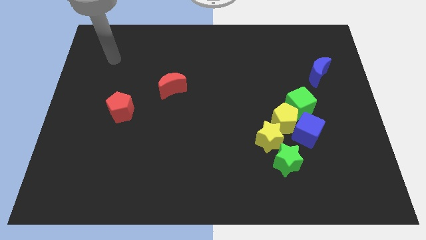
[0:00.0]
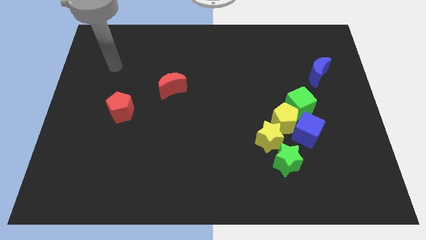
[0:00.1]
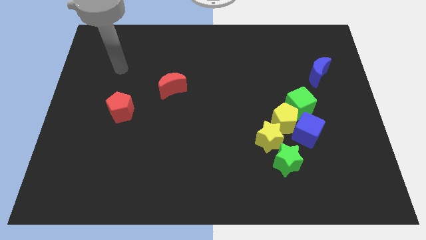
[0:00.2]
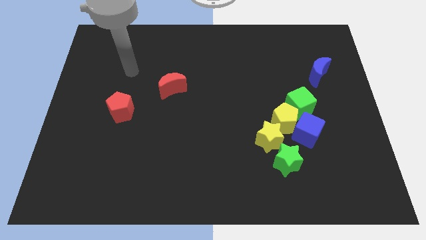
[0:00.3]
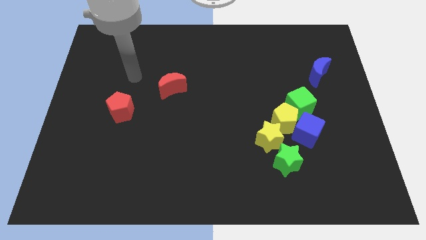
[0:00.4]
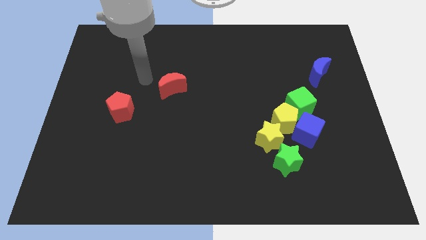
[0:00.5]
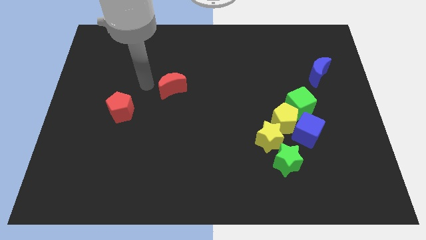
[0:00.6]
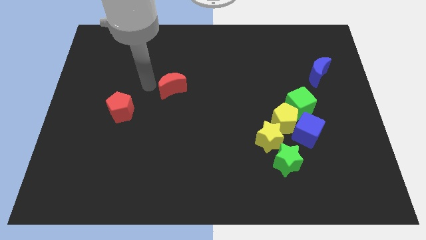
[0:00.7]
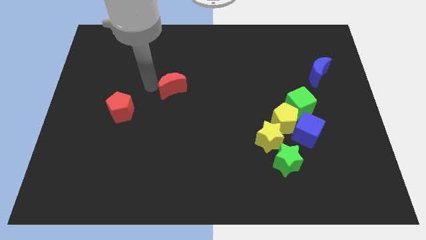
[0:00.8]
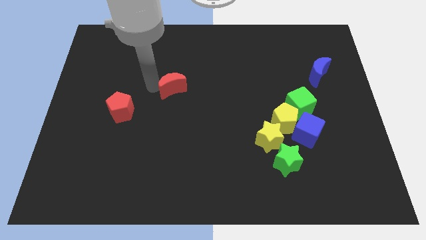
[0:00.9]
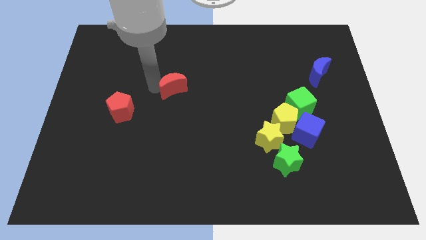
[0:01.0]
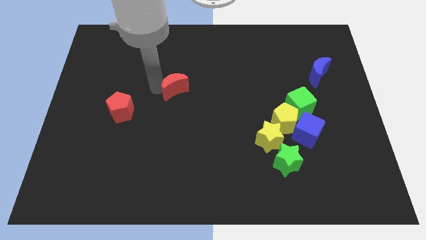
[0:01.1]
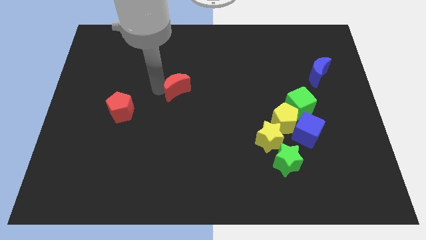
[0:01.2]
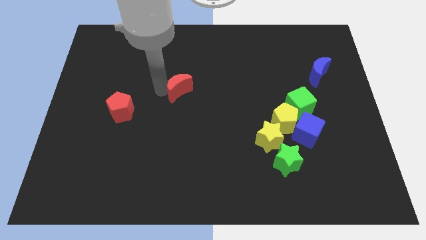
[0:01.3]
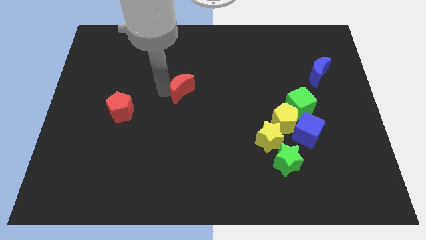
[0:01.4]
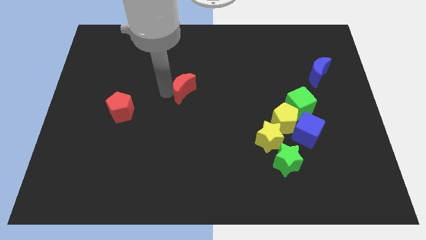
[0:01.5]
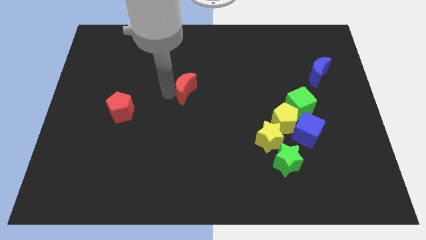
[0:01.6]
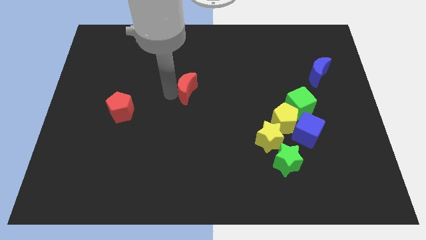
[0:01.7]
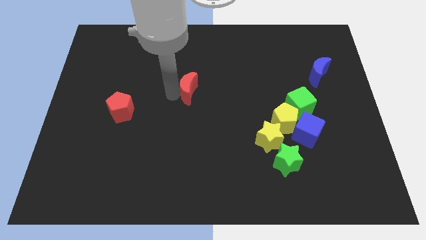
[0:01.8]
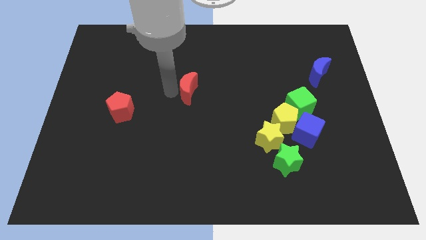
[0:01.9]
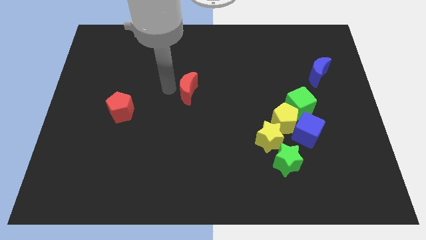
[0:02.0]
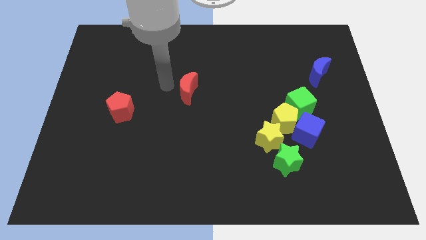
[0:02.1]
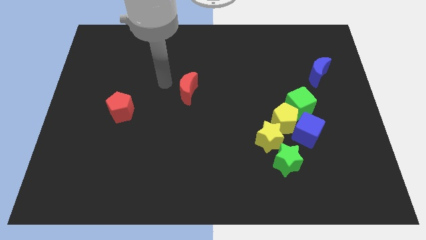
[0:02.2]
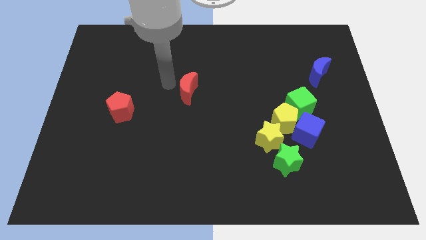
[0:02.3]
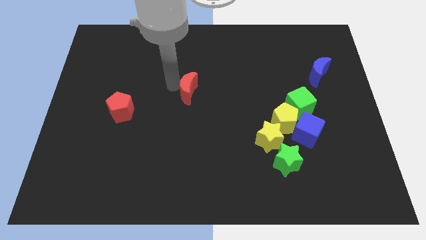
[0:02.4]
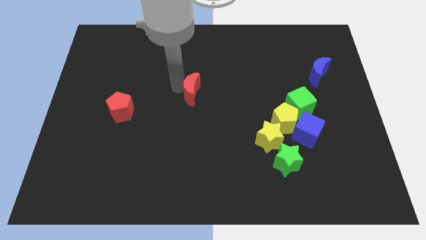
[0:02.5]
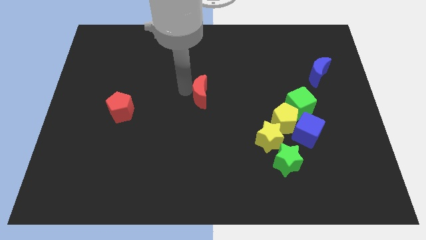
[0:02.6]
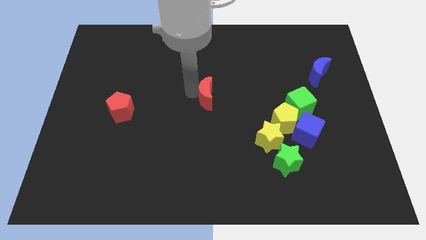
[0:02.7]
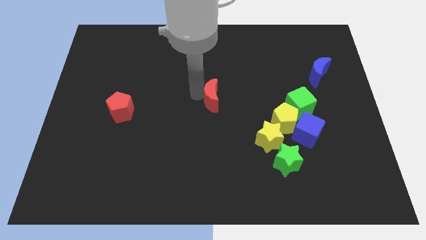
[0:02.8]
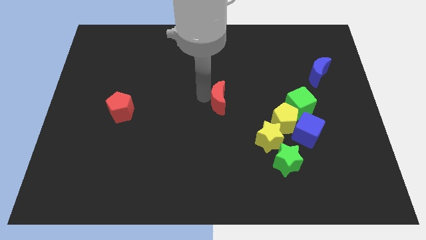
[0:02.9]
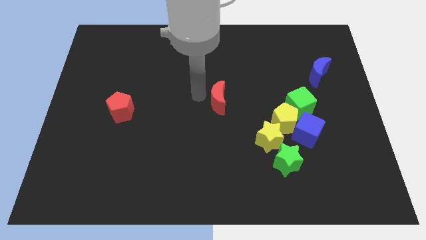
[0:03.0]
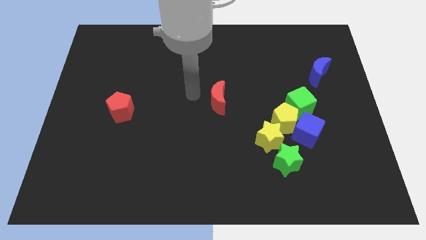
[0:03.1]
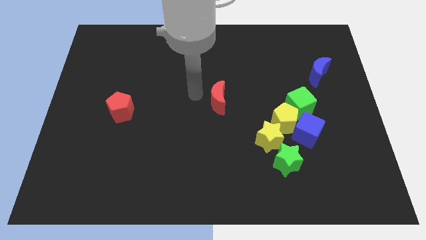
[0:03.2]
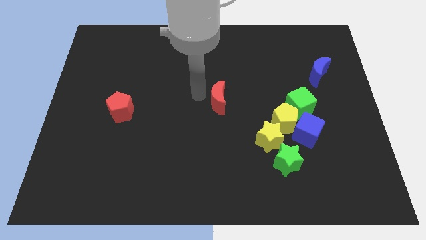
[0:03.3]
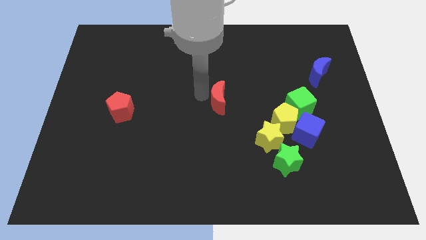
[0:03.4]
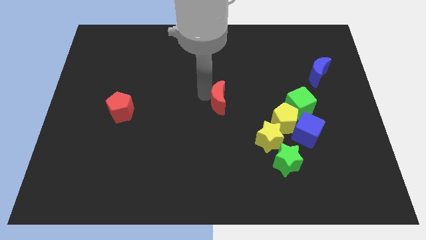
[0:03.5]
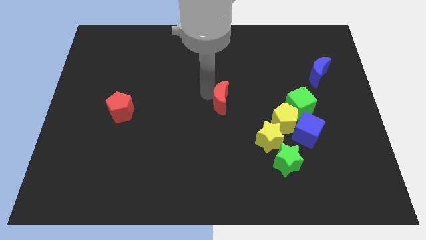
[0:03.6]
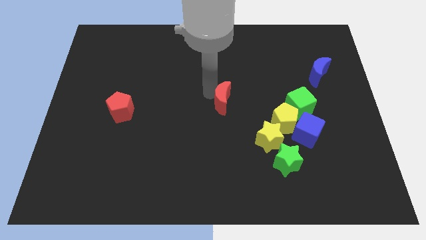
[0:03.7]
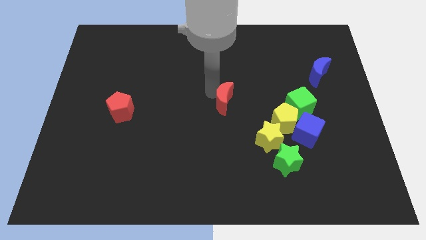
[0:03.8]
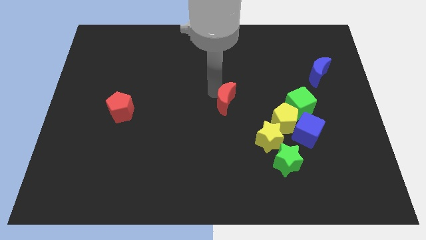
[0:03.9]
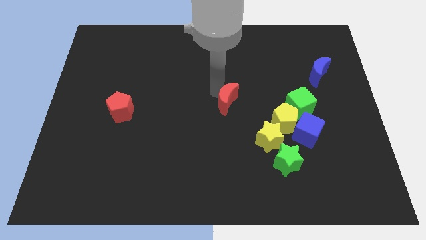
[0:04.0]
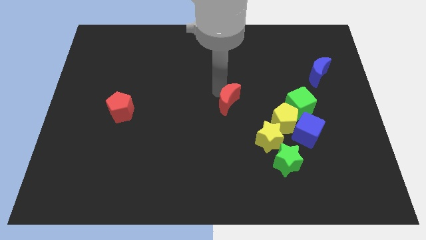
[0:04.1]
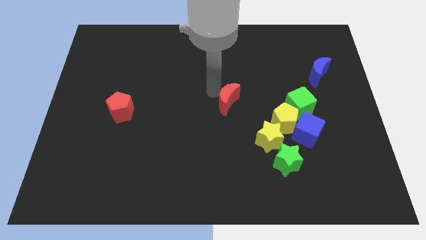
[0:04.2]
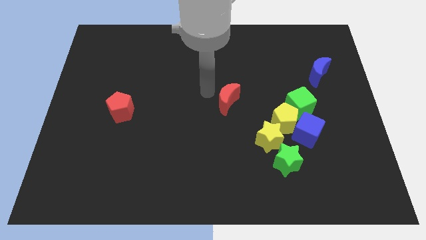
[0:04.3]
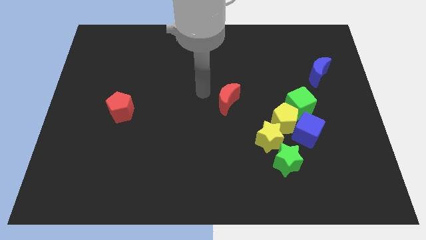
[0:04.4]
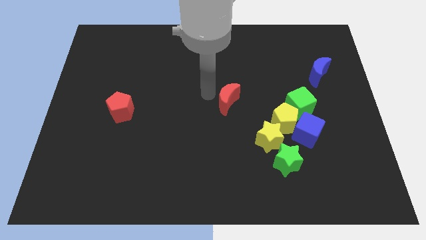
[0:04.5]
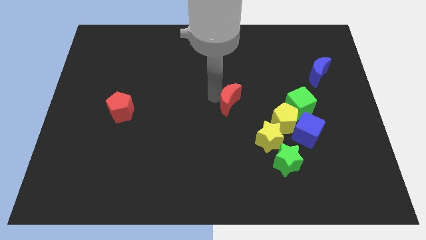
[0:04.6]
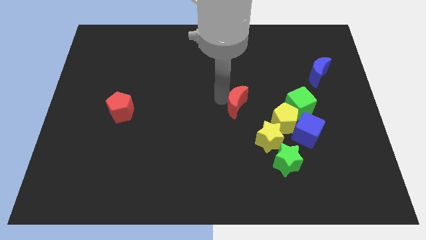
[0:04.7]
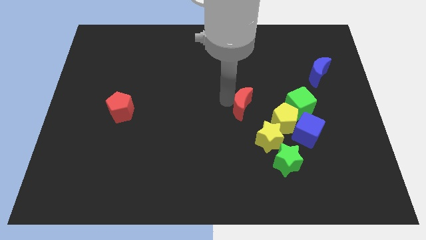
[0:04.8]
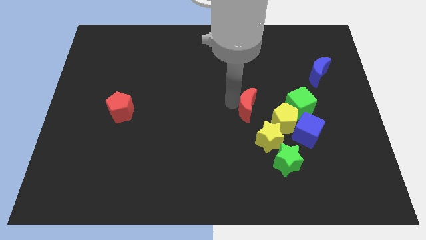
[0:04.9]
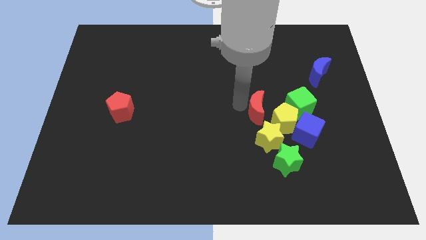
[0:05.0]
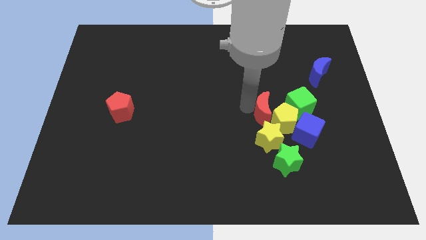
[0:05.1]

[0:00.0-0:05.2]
slide the red moon towards the yellow pentagon
